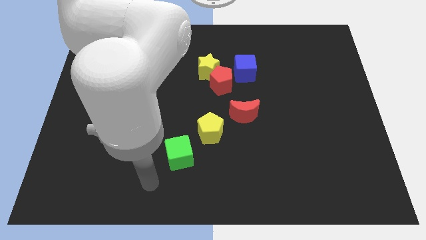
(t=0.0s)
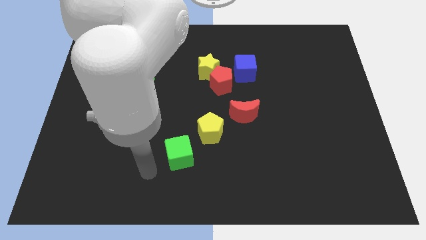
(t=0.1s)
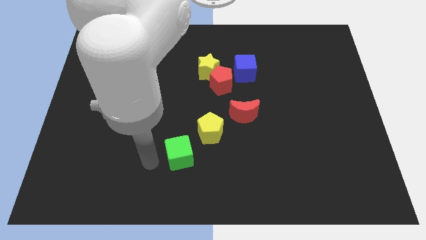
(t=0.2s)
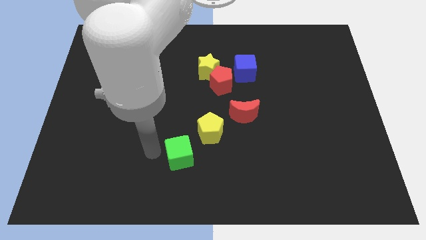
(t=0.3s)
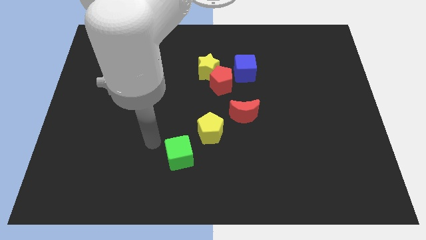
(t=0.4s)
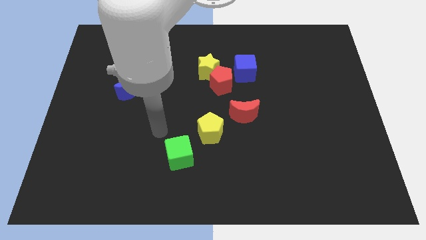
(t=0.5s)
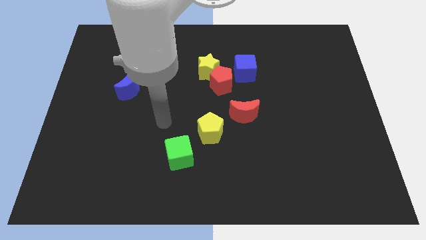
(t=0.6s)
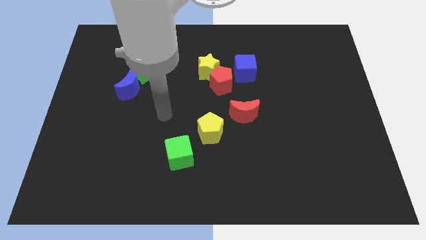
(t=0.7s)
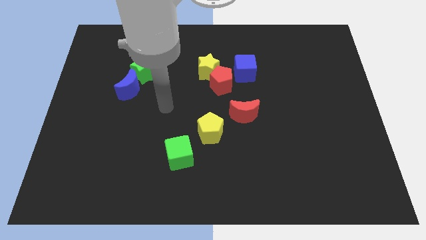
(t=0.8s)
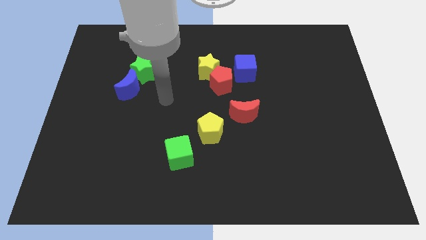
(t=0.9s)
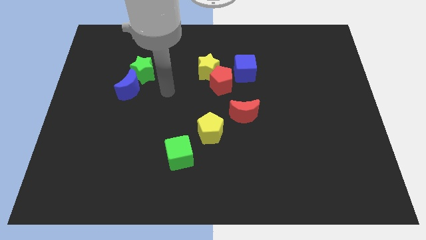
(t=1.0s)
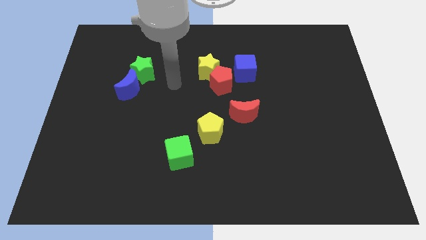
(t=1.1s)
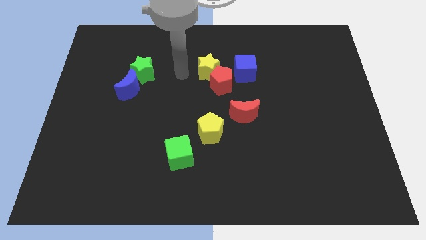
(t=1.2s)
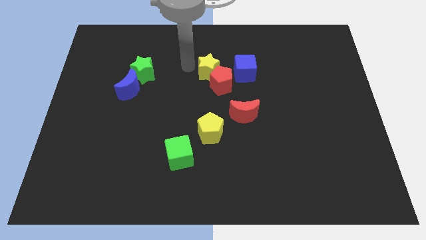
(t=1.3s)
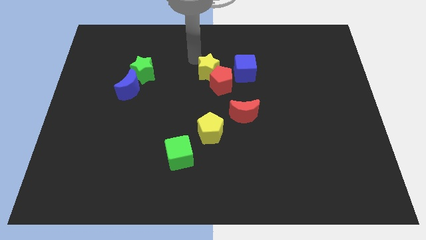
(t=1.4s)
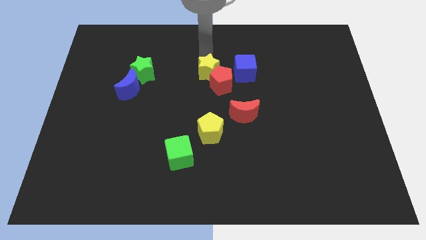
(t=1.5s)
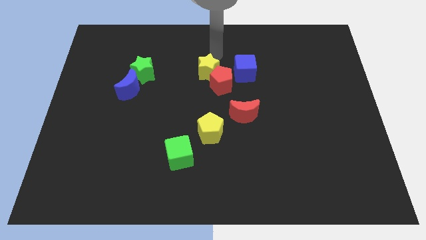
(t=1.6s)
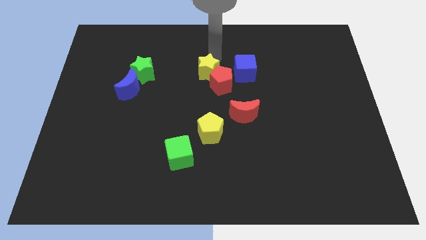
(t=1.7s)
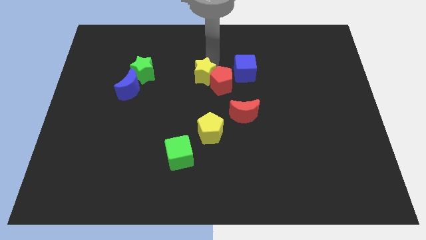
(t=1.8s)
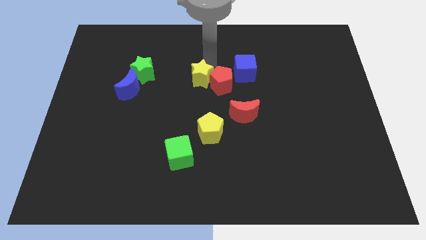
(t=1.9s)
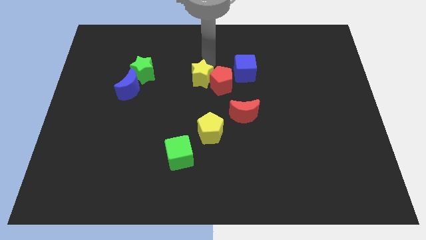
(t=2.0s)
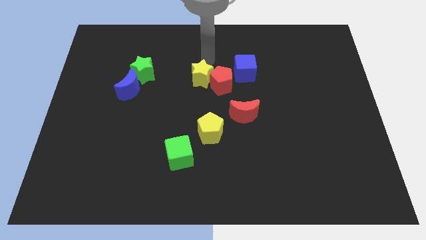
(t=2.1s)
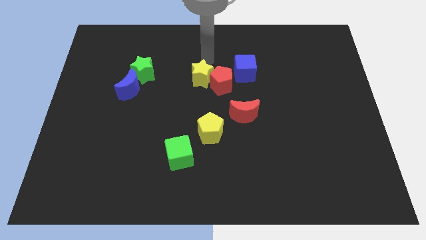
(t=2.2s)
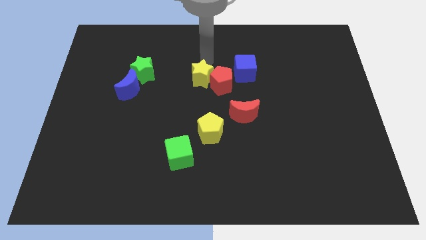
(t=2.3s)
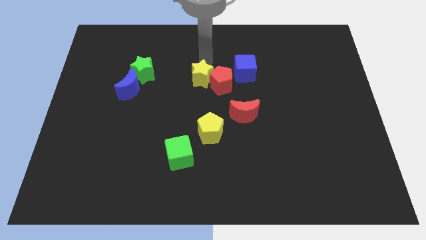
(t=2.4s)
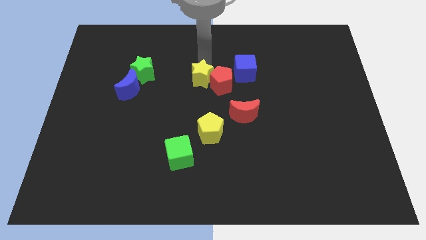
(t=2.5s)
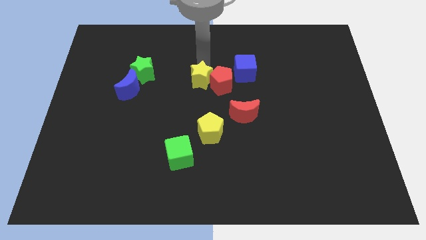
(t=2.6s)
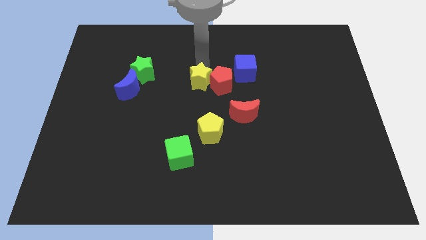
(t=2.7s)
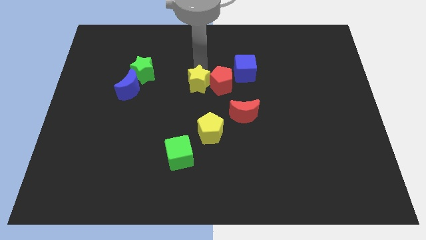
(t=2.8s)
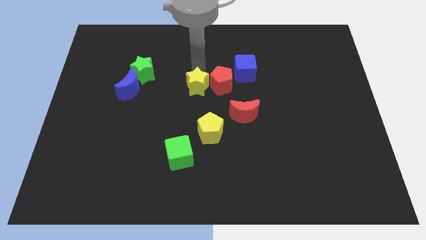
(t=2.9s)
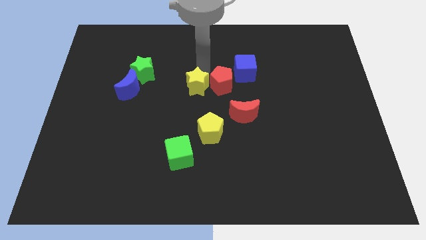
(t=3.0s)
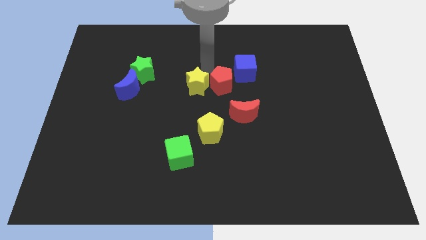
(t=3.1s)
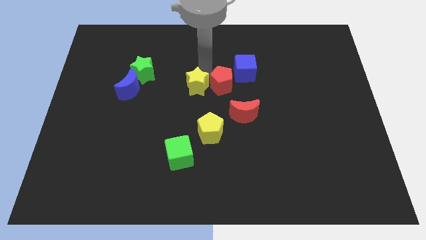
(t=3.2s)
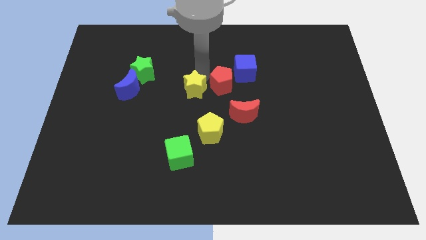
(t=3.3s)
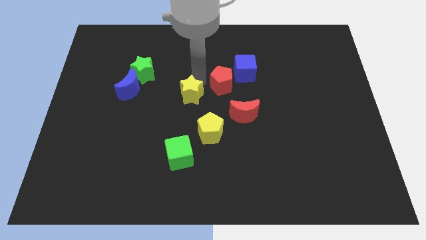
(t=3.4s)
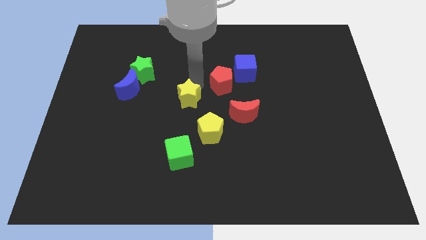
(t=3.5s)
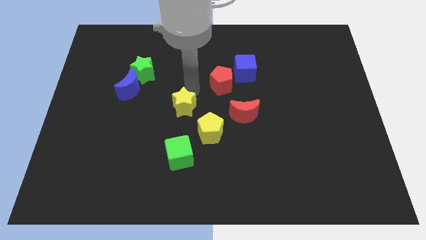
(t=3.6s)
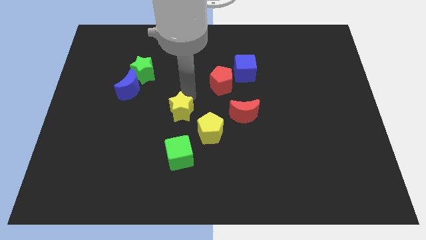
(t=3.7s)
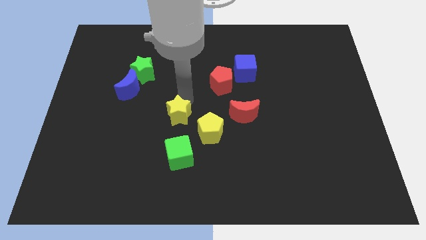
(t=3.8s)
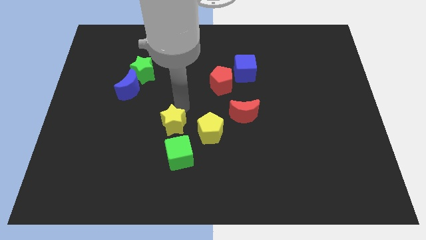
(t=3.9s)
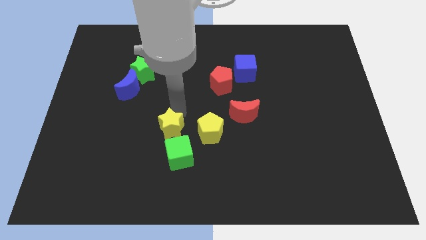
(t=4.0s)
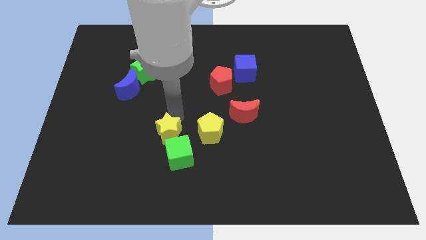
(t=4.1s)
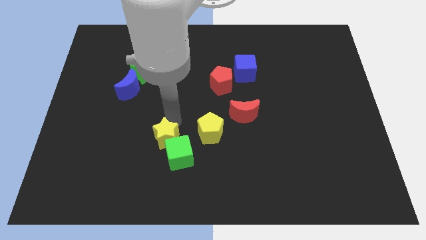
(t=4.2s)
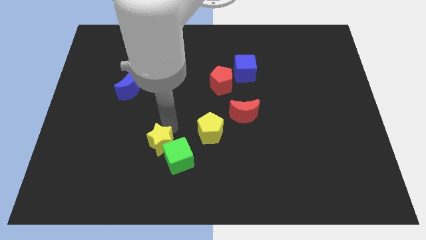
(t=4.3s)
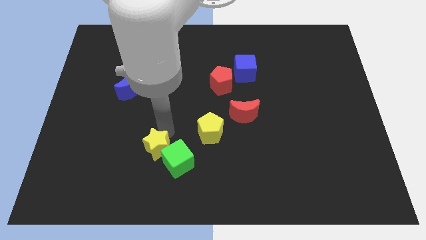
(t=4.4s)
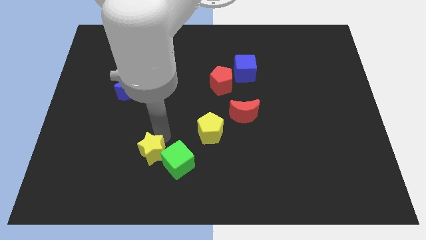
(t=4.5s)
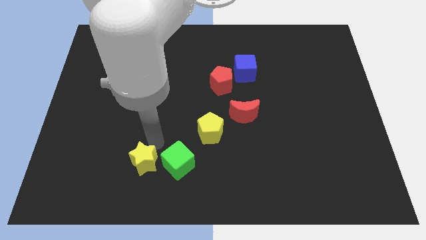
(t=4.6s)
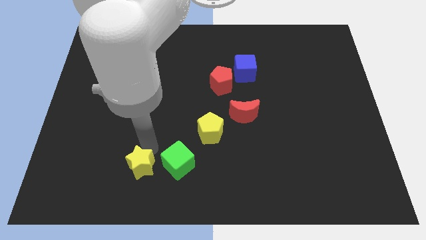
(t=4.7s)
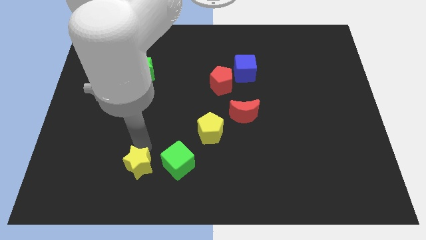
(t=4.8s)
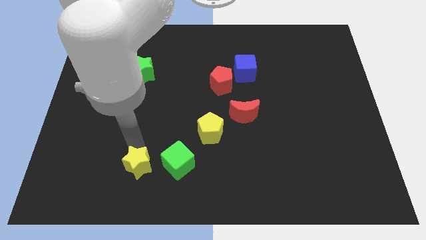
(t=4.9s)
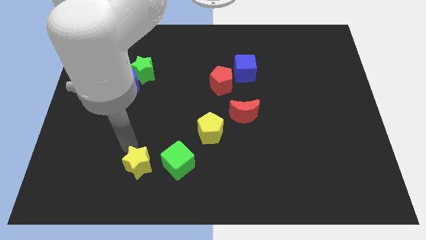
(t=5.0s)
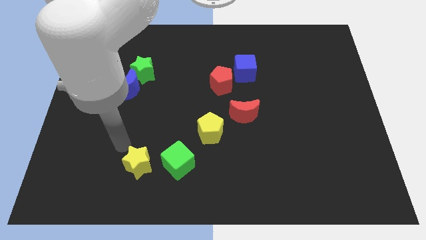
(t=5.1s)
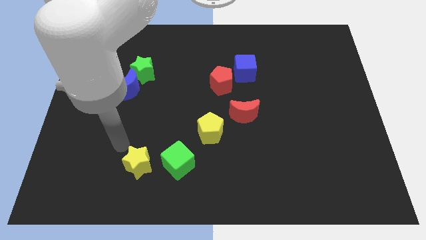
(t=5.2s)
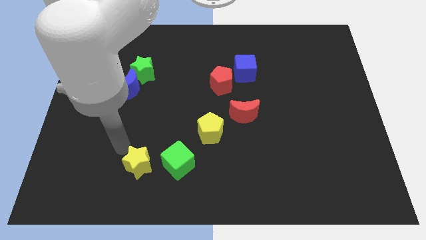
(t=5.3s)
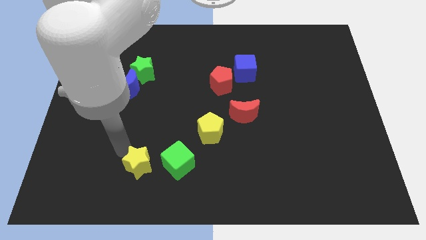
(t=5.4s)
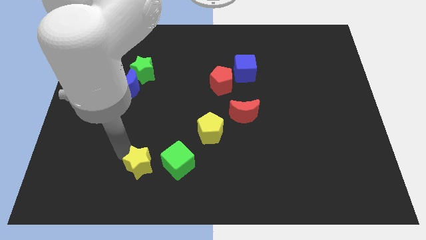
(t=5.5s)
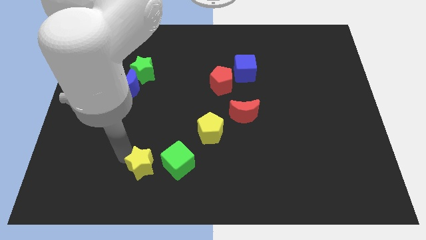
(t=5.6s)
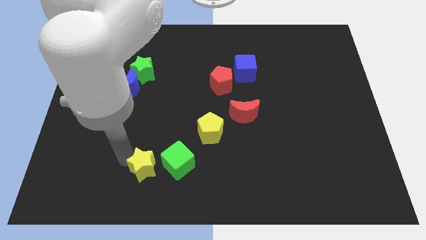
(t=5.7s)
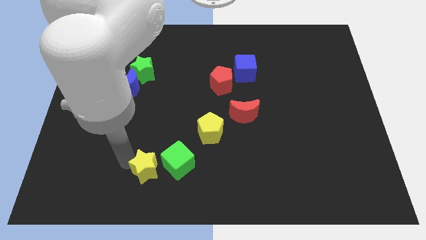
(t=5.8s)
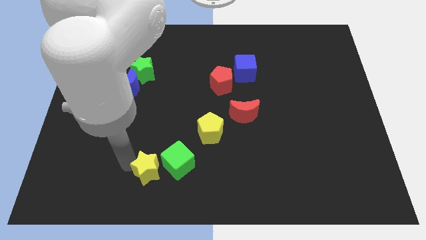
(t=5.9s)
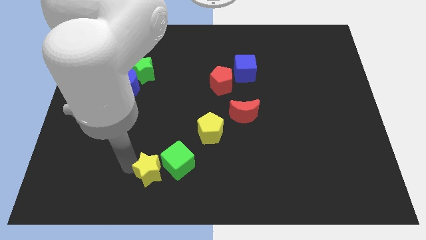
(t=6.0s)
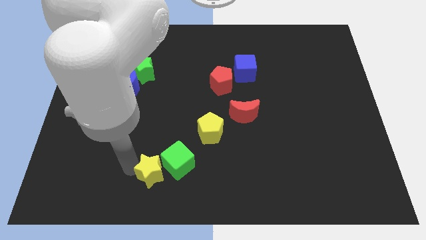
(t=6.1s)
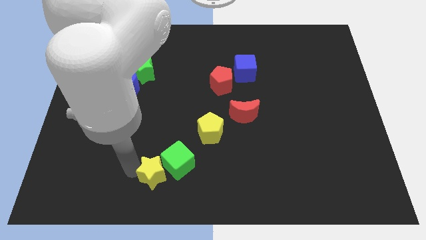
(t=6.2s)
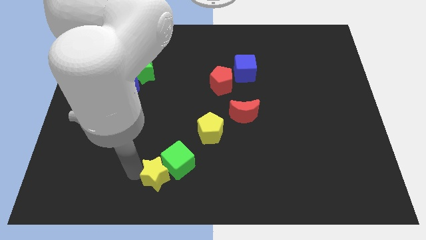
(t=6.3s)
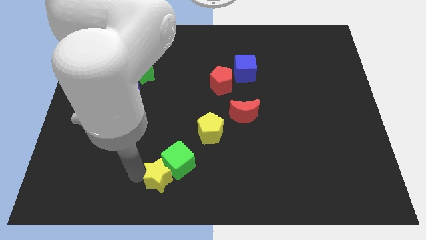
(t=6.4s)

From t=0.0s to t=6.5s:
put the yellow star to the bottom

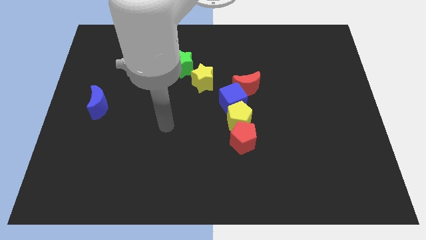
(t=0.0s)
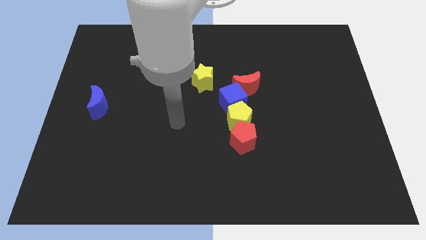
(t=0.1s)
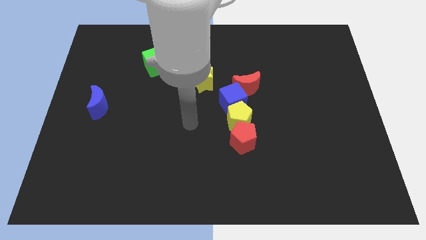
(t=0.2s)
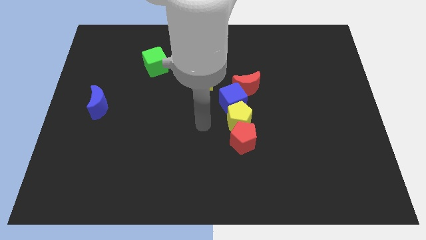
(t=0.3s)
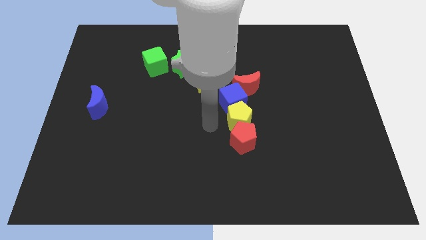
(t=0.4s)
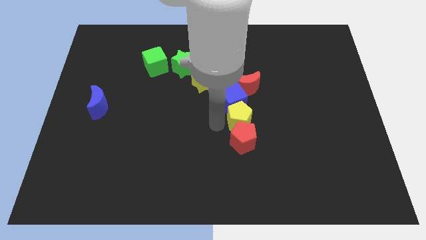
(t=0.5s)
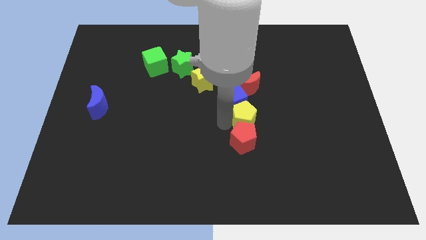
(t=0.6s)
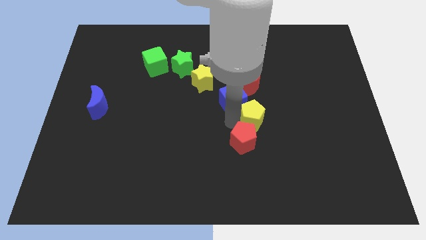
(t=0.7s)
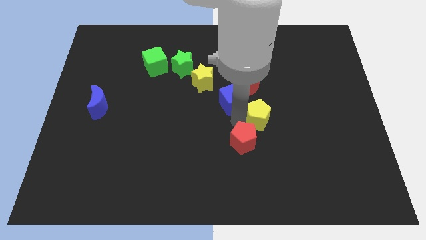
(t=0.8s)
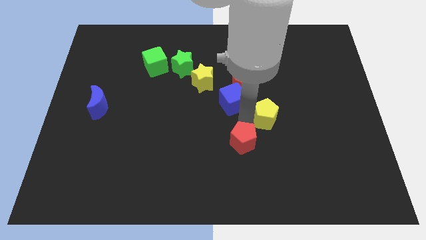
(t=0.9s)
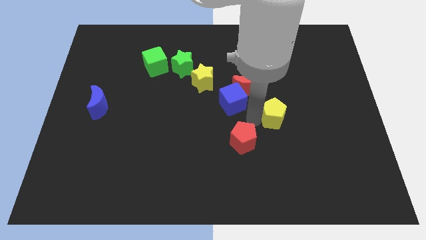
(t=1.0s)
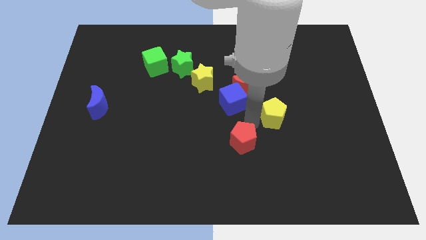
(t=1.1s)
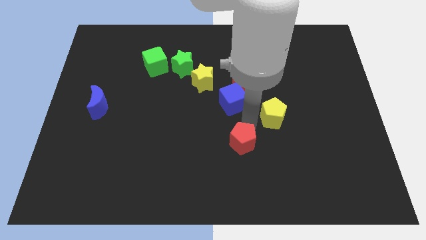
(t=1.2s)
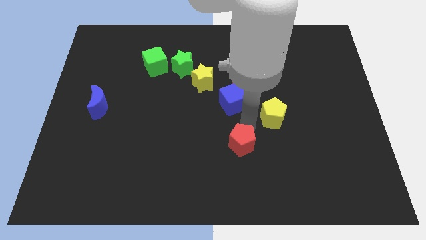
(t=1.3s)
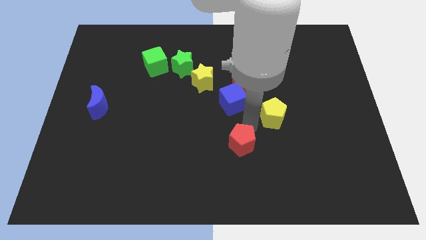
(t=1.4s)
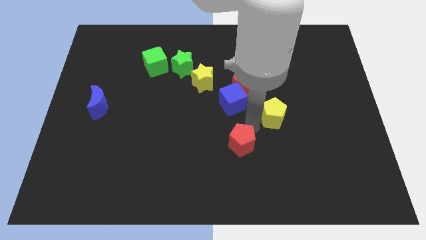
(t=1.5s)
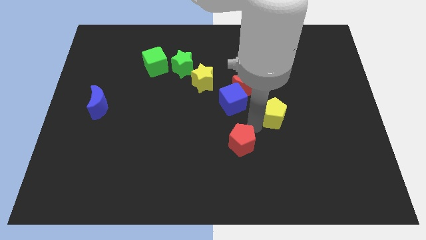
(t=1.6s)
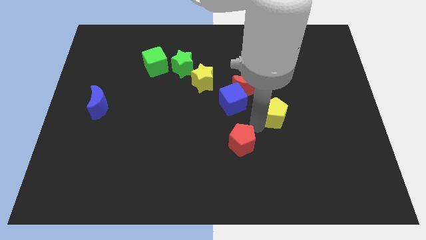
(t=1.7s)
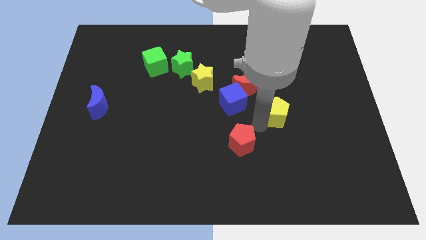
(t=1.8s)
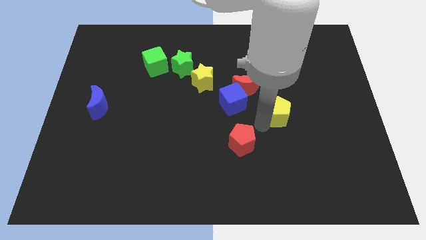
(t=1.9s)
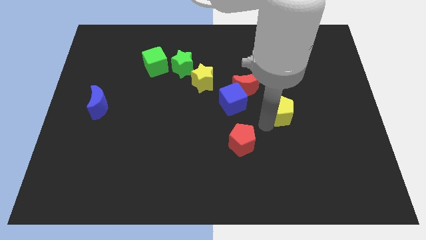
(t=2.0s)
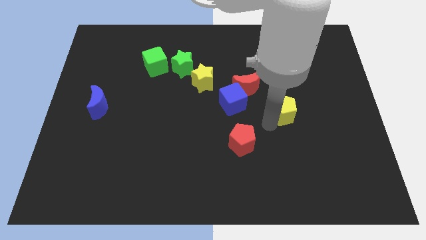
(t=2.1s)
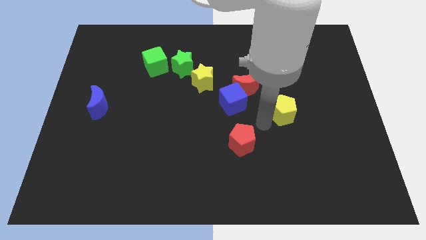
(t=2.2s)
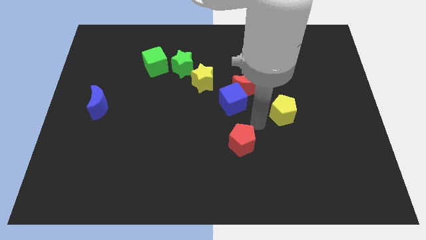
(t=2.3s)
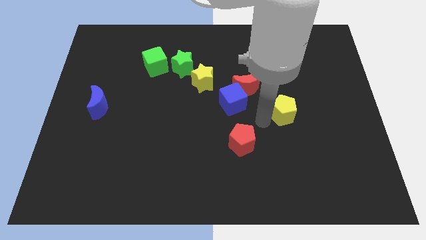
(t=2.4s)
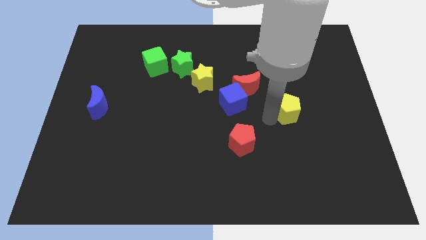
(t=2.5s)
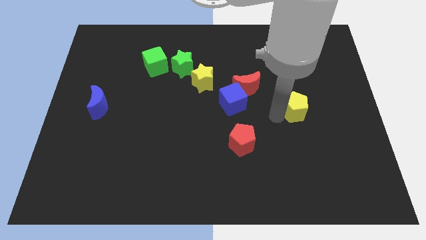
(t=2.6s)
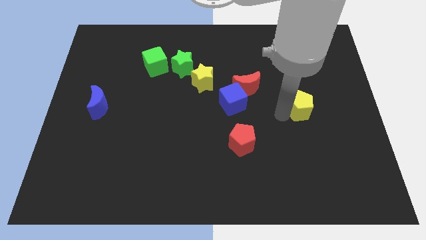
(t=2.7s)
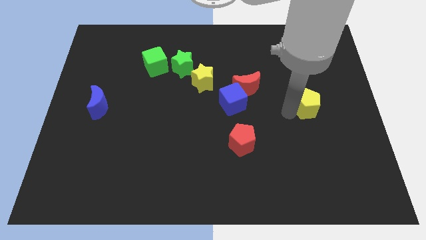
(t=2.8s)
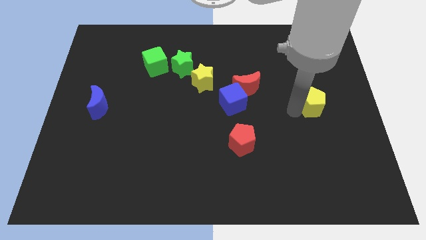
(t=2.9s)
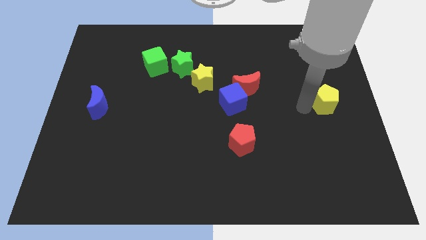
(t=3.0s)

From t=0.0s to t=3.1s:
move the yellow pentagon to the right side
